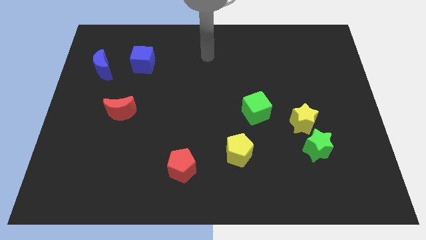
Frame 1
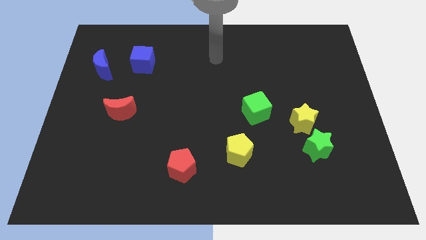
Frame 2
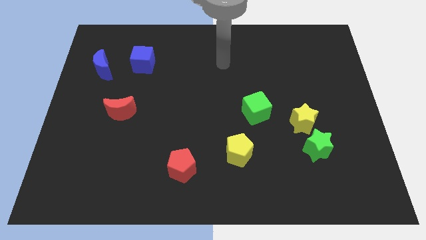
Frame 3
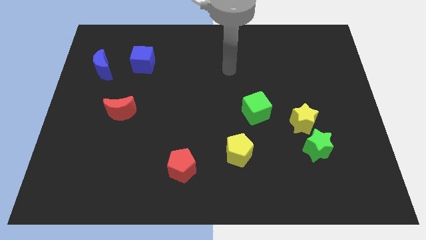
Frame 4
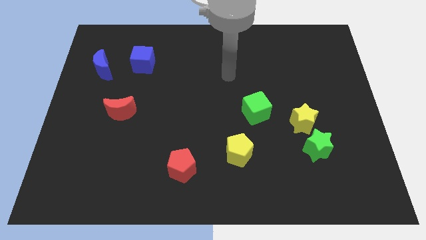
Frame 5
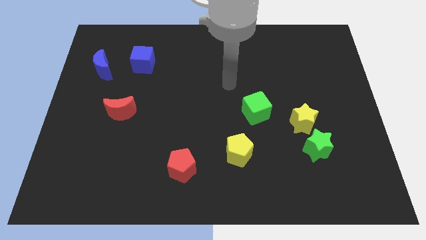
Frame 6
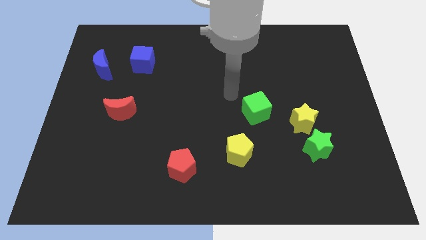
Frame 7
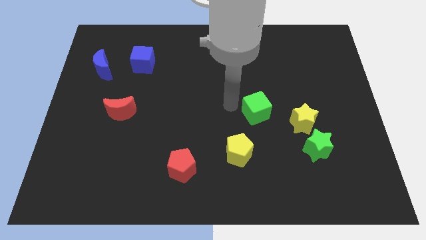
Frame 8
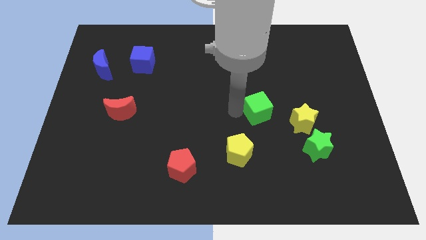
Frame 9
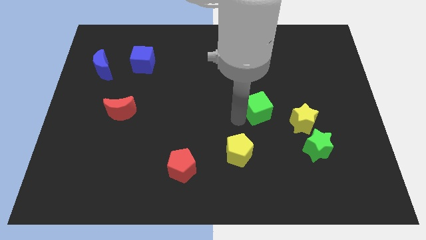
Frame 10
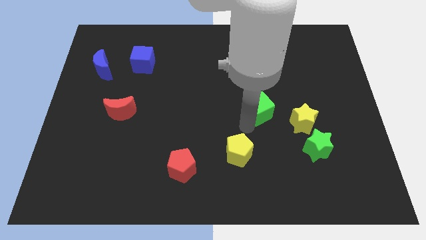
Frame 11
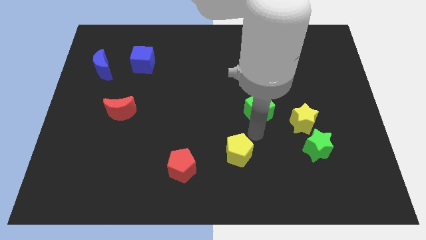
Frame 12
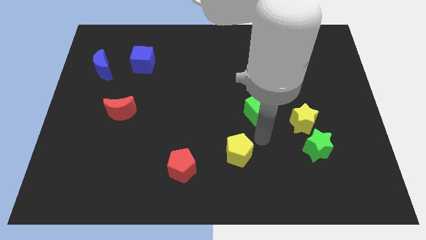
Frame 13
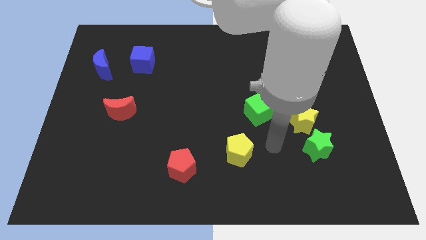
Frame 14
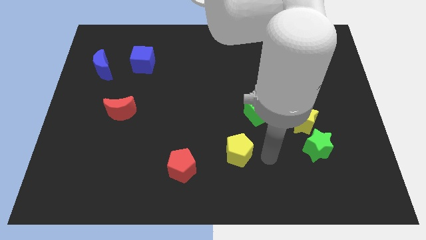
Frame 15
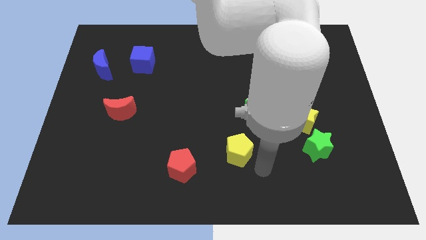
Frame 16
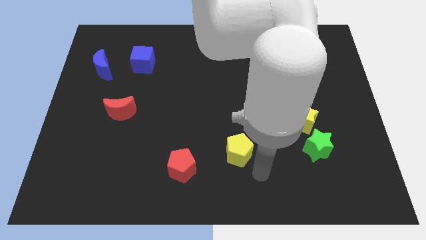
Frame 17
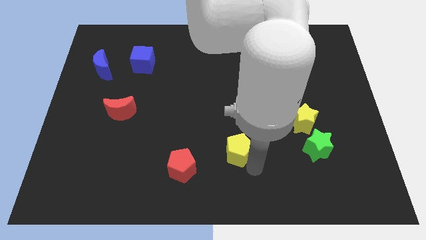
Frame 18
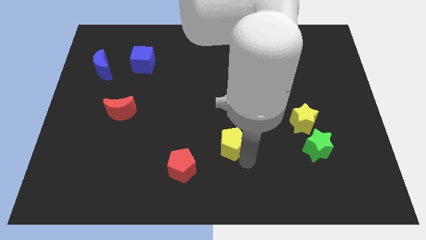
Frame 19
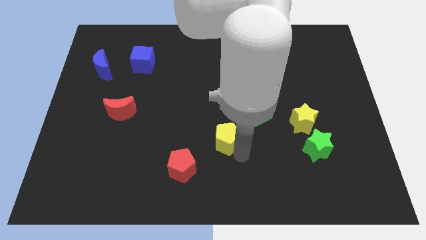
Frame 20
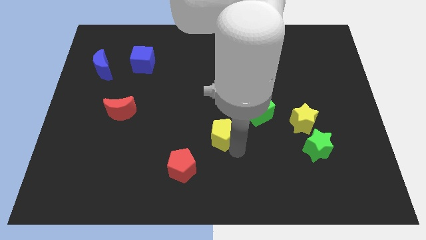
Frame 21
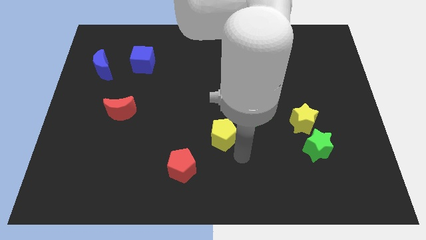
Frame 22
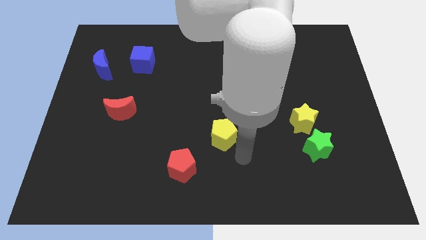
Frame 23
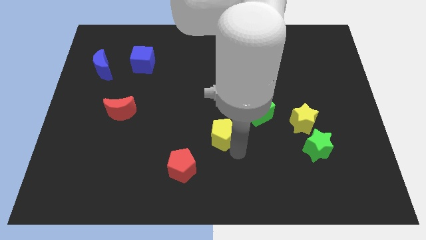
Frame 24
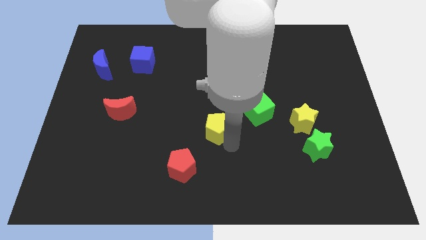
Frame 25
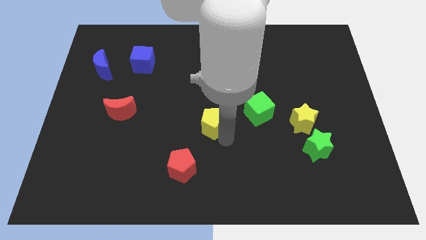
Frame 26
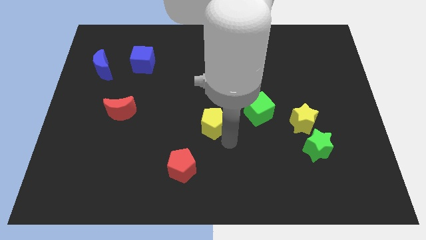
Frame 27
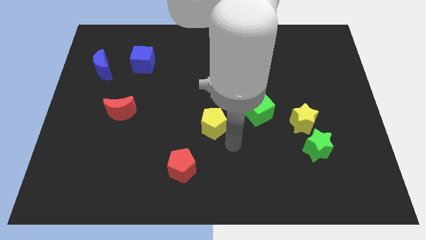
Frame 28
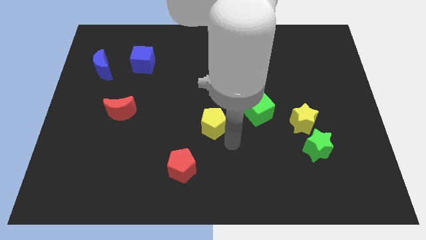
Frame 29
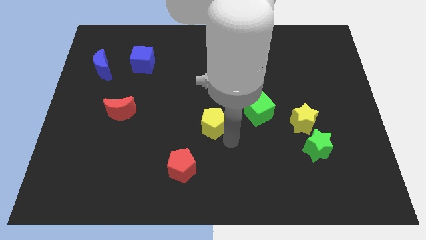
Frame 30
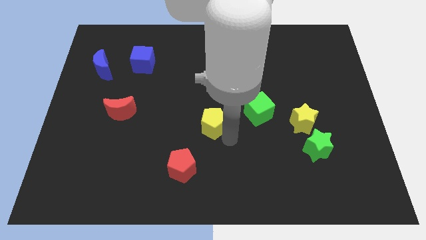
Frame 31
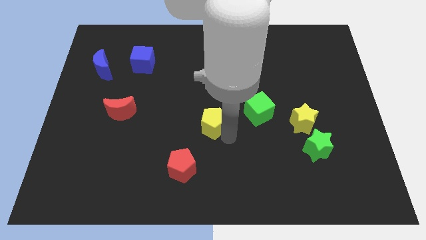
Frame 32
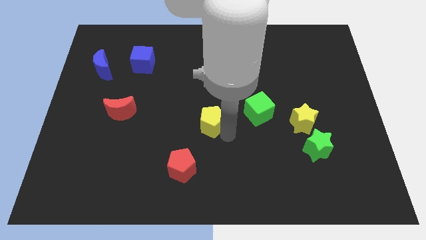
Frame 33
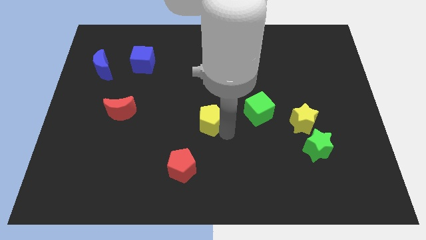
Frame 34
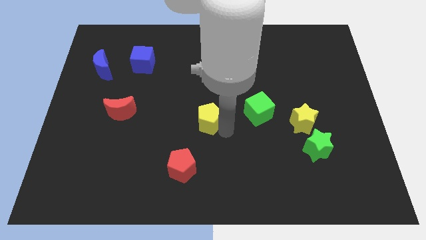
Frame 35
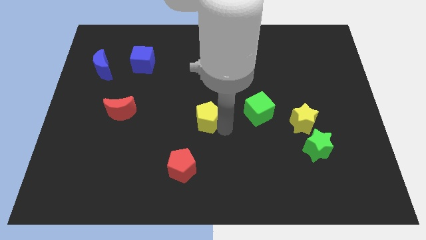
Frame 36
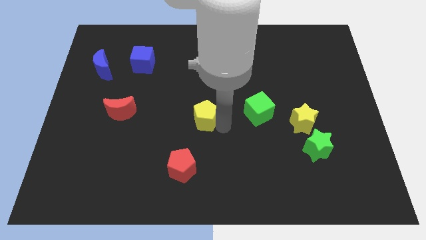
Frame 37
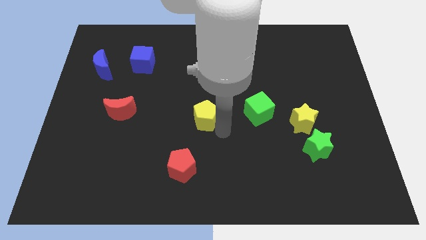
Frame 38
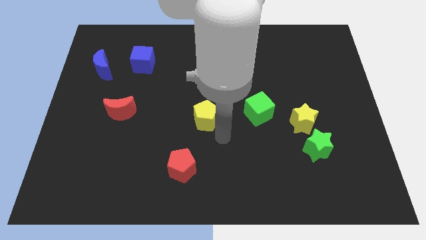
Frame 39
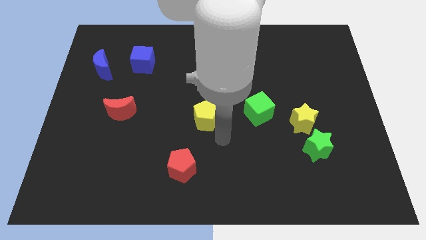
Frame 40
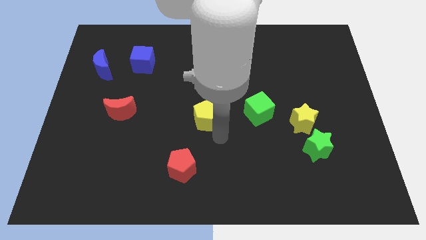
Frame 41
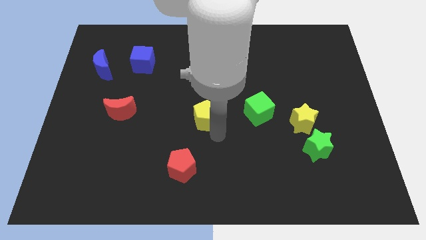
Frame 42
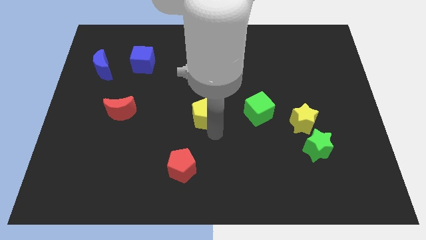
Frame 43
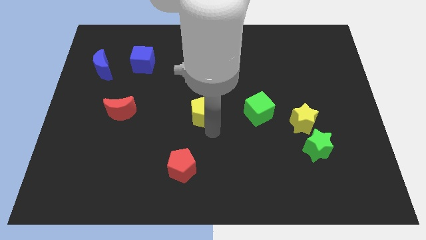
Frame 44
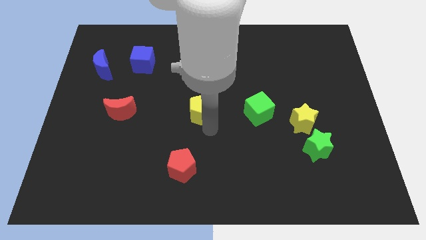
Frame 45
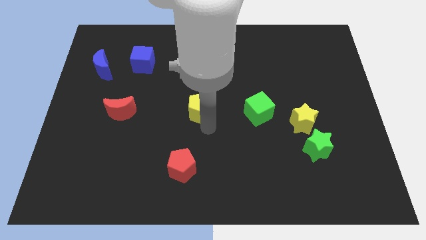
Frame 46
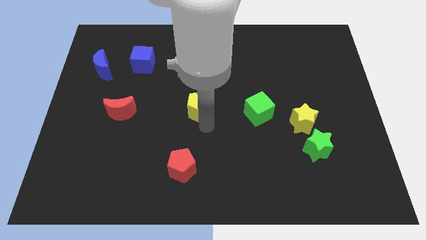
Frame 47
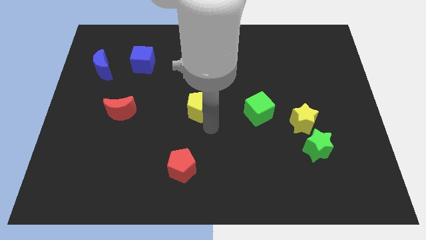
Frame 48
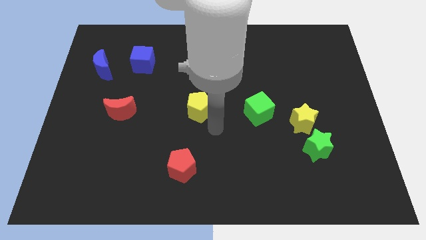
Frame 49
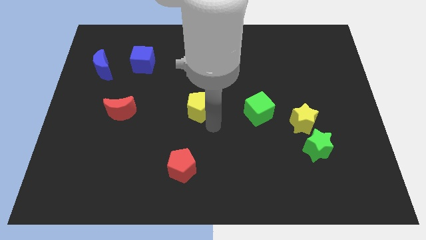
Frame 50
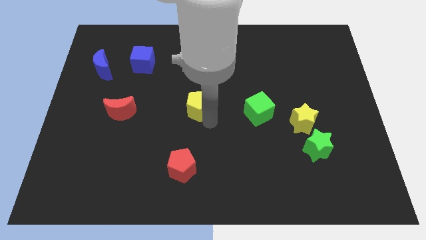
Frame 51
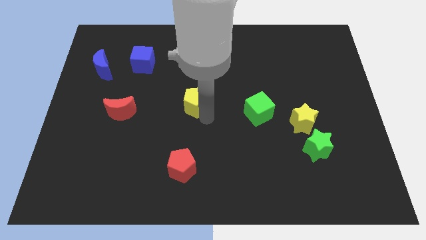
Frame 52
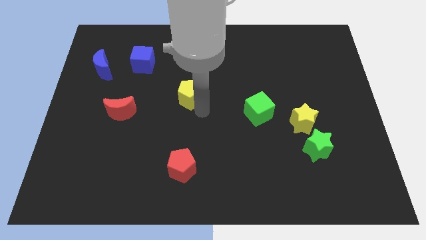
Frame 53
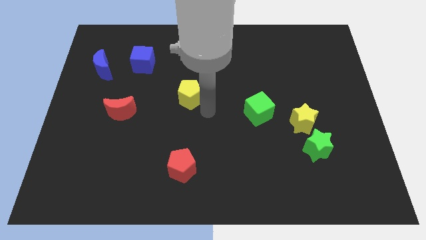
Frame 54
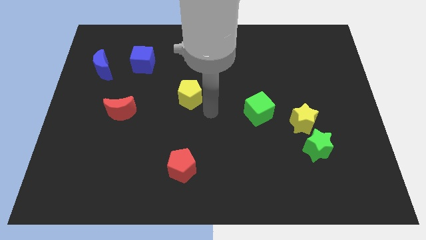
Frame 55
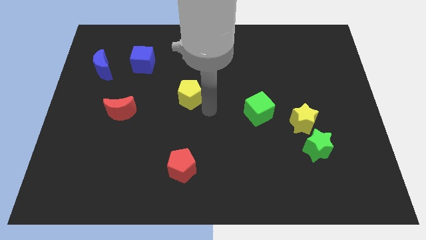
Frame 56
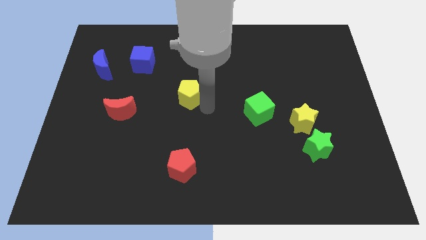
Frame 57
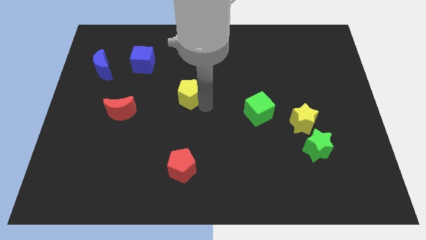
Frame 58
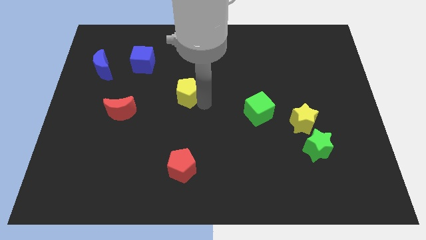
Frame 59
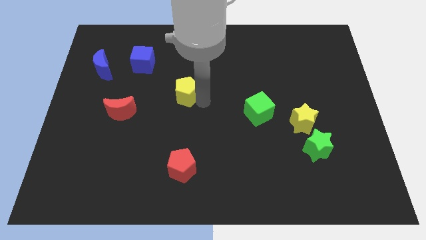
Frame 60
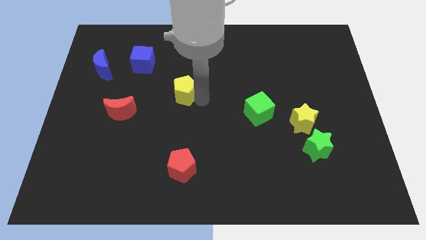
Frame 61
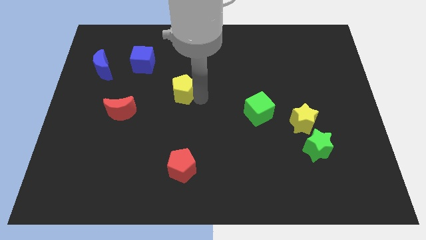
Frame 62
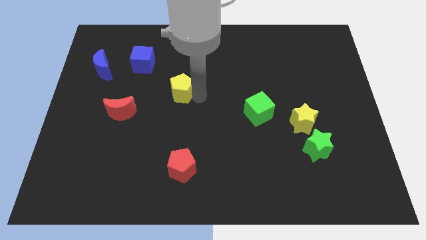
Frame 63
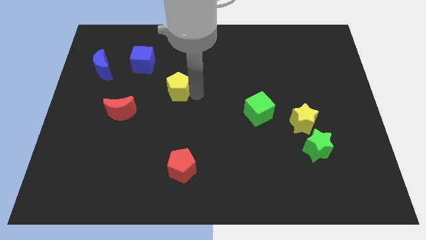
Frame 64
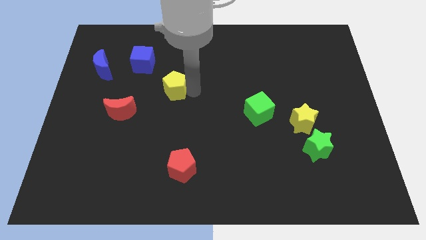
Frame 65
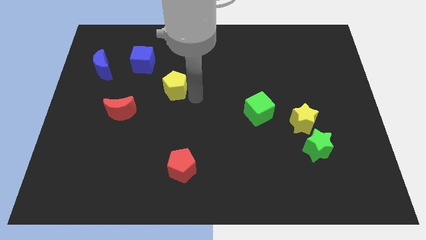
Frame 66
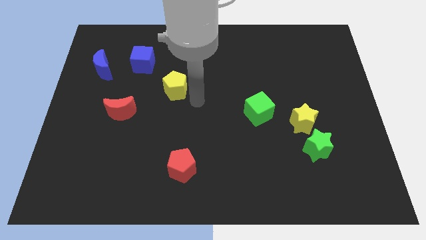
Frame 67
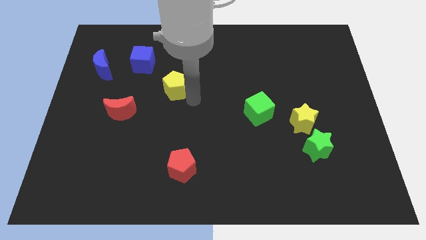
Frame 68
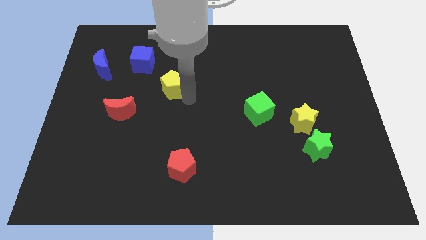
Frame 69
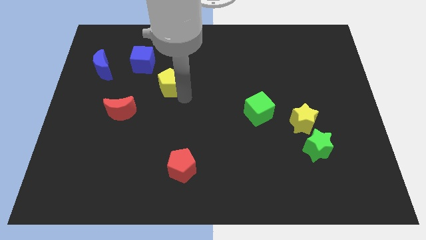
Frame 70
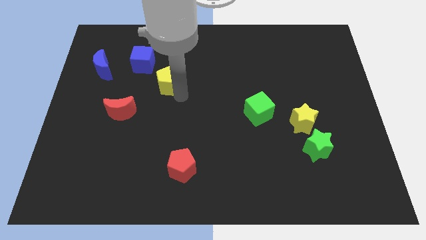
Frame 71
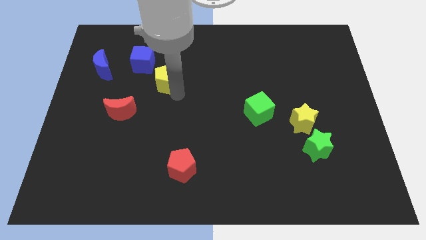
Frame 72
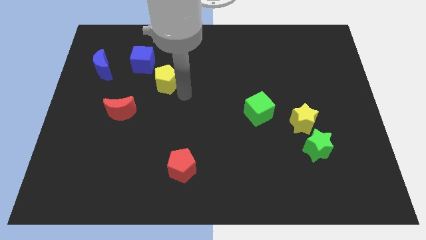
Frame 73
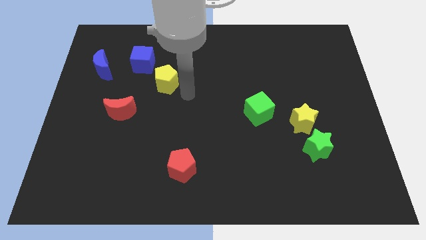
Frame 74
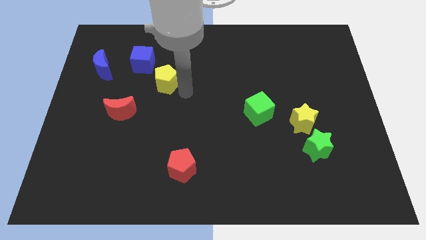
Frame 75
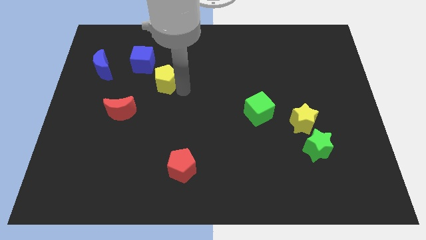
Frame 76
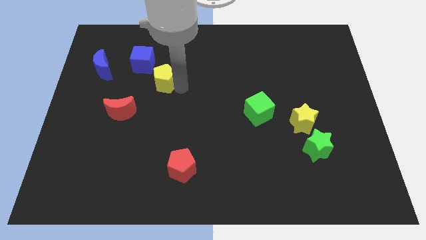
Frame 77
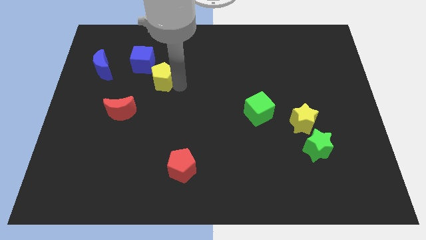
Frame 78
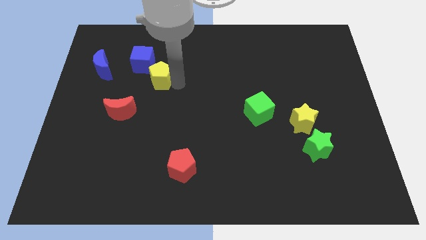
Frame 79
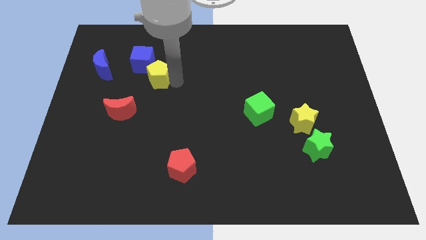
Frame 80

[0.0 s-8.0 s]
slide the yellow pentagon just right of the blue moon
